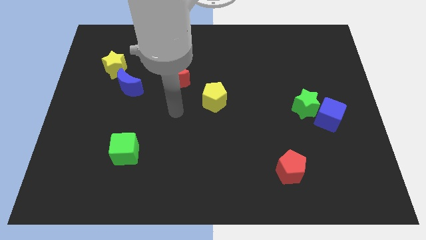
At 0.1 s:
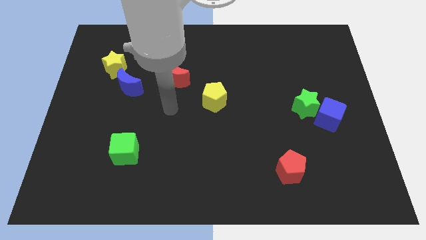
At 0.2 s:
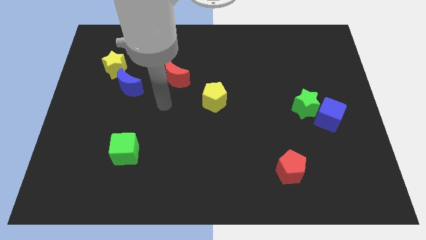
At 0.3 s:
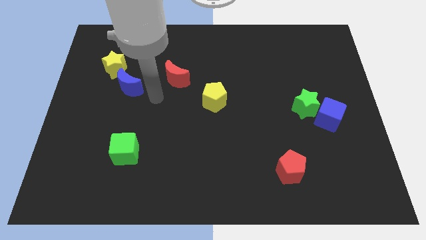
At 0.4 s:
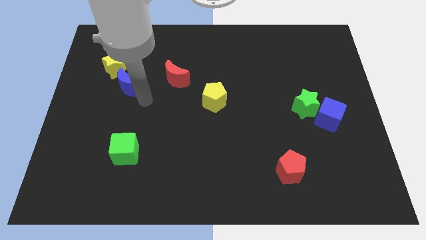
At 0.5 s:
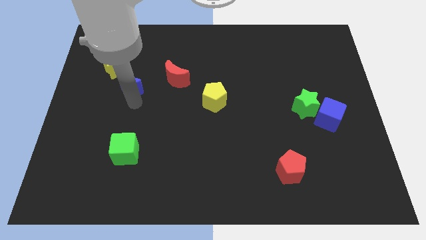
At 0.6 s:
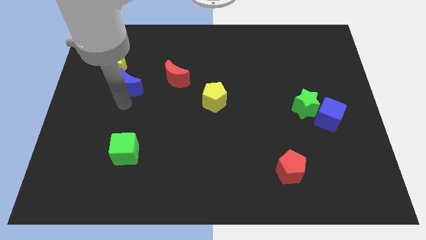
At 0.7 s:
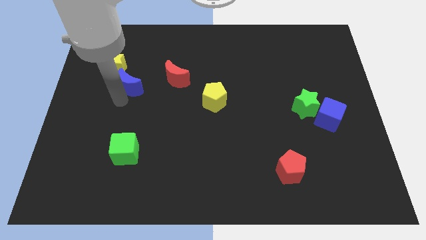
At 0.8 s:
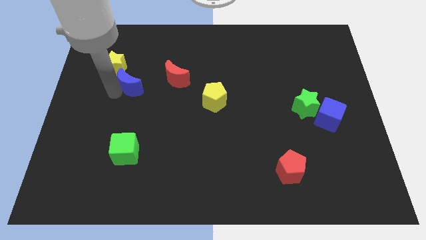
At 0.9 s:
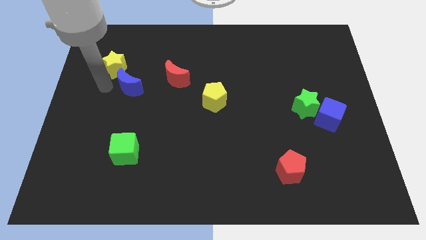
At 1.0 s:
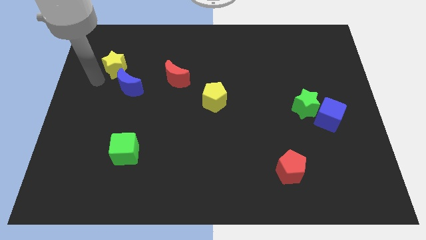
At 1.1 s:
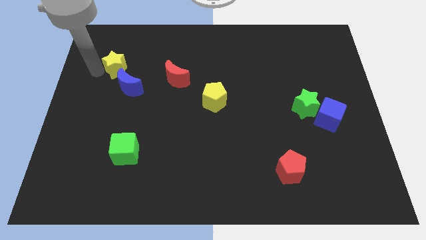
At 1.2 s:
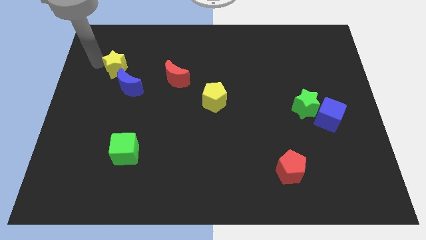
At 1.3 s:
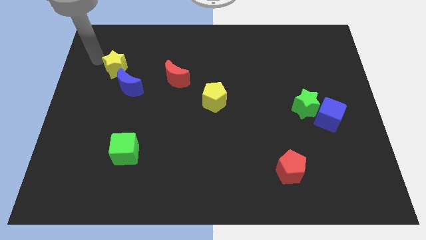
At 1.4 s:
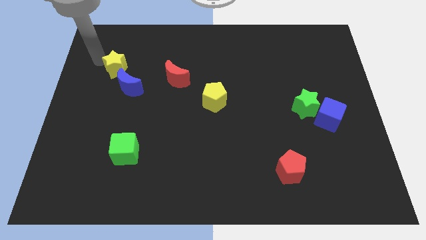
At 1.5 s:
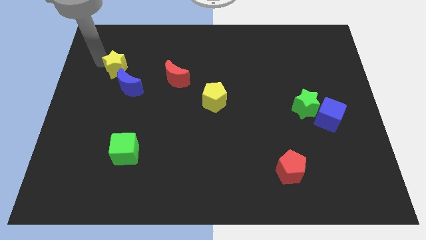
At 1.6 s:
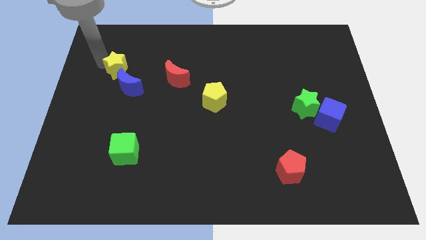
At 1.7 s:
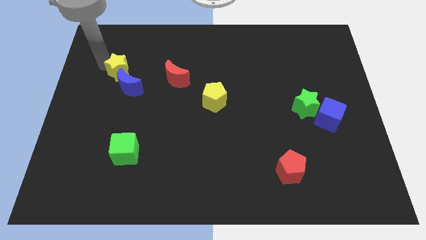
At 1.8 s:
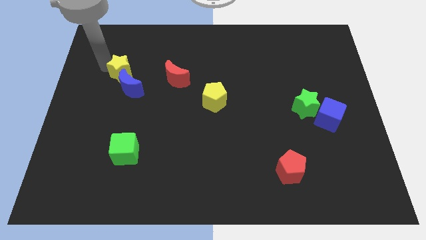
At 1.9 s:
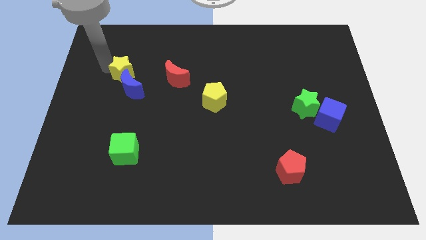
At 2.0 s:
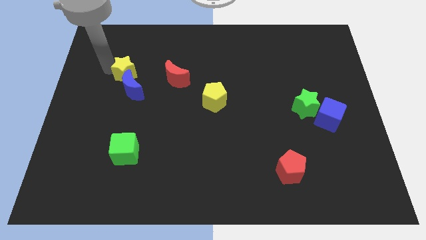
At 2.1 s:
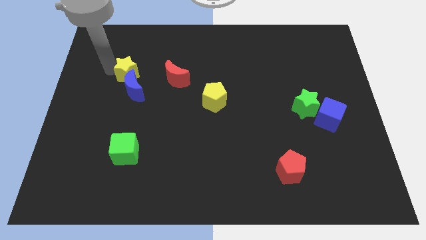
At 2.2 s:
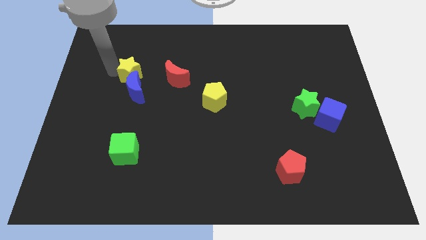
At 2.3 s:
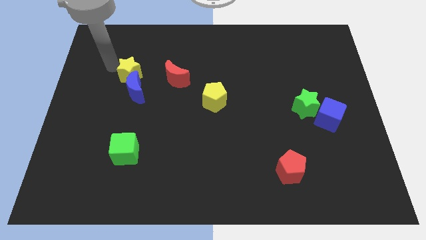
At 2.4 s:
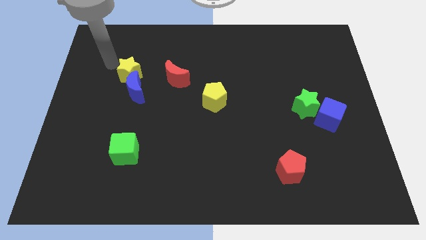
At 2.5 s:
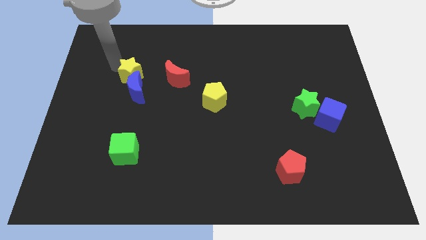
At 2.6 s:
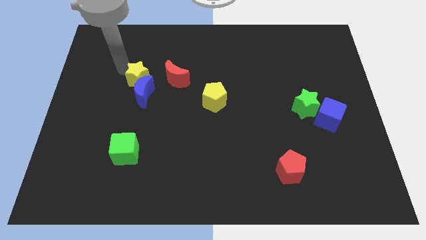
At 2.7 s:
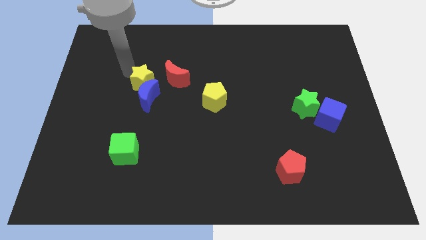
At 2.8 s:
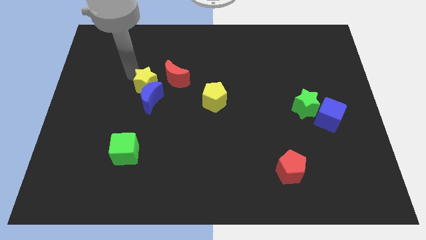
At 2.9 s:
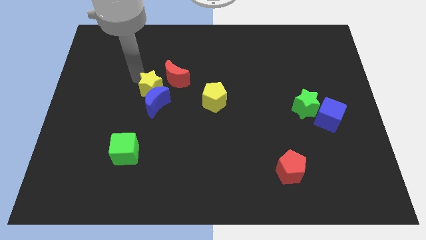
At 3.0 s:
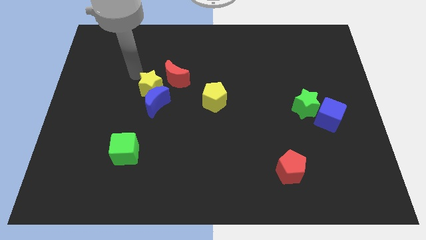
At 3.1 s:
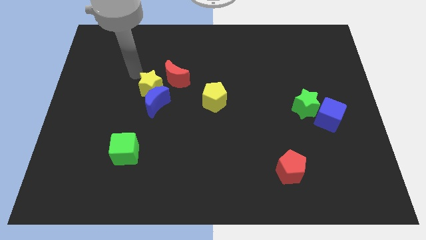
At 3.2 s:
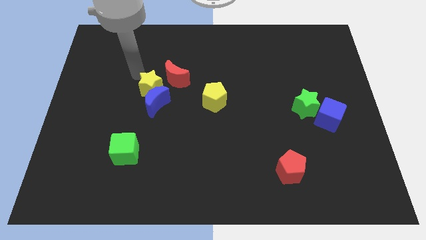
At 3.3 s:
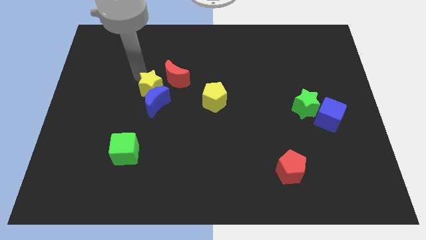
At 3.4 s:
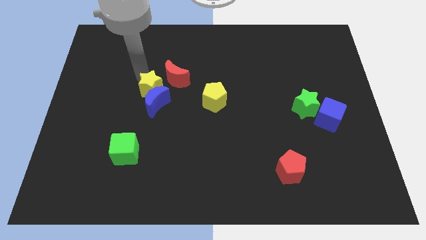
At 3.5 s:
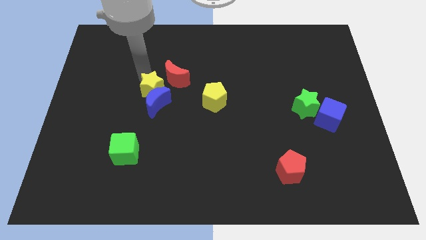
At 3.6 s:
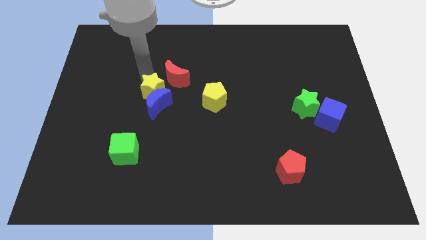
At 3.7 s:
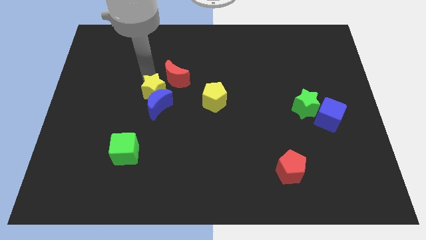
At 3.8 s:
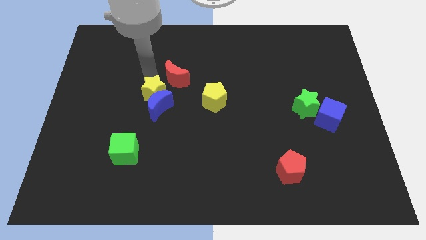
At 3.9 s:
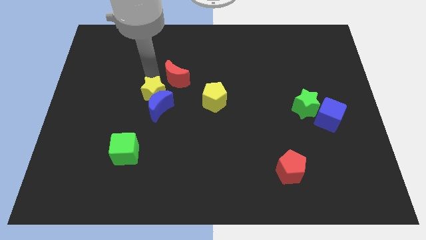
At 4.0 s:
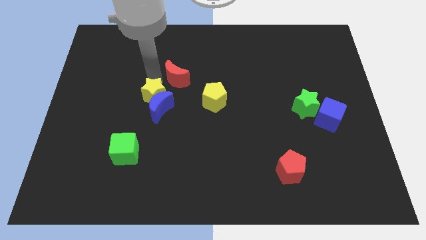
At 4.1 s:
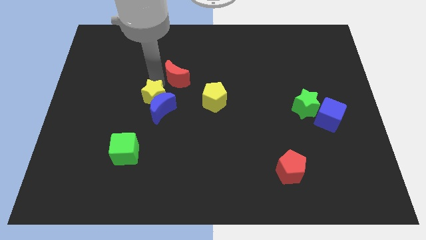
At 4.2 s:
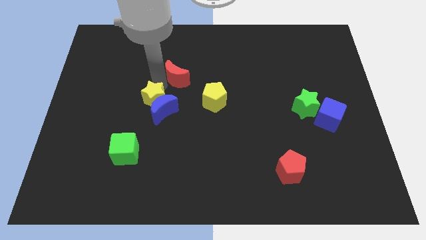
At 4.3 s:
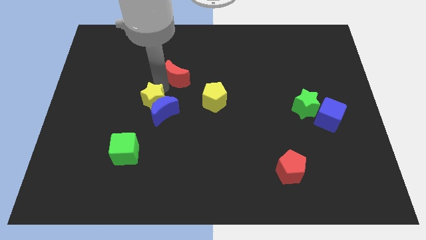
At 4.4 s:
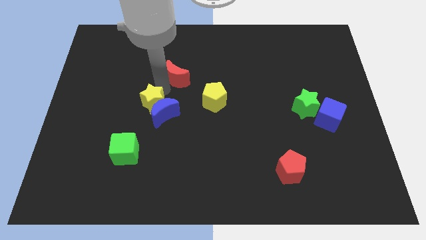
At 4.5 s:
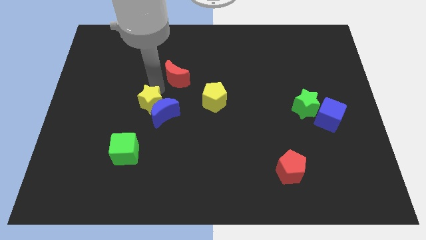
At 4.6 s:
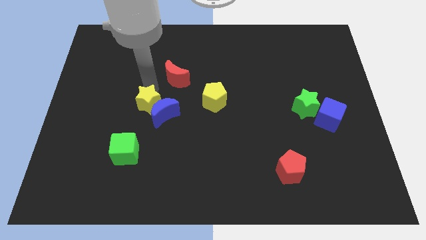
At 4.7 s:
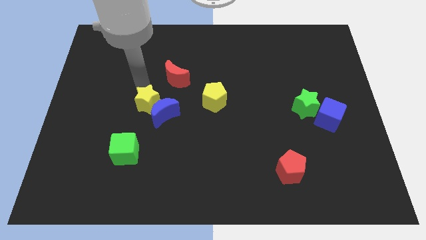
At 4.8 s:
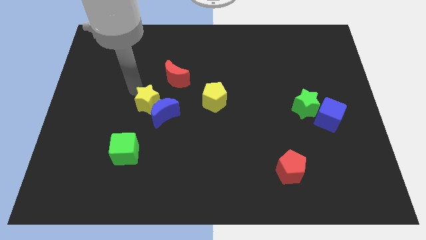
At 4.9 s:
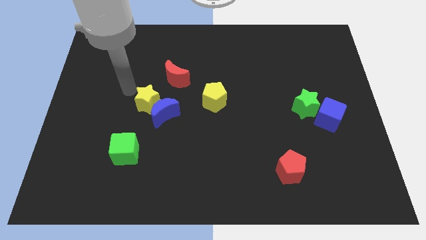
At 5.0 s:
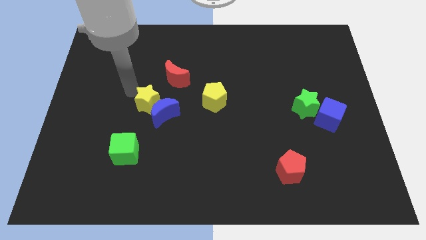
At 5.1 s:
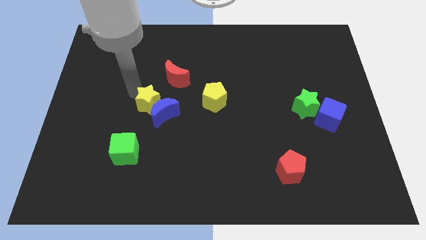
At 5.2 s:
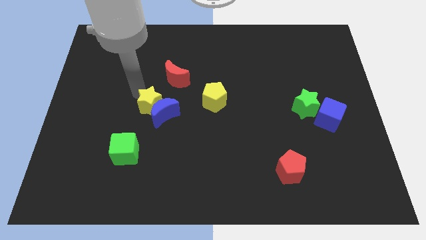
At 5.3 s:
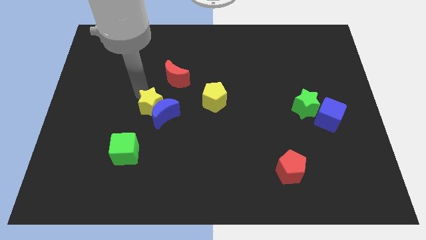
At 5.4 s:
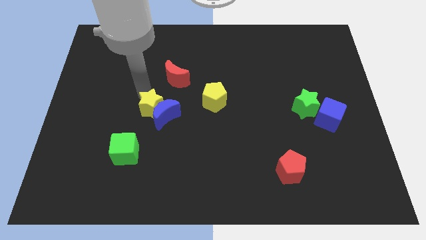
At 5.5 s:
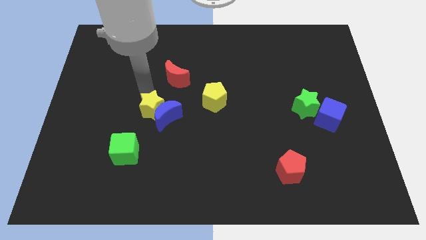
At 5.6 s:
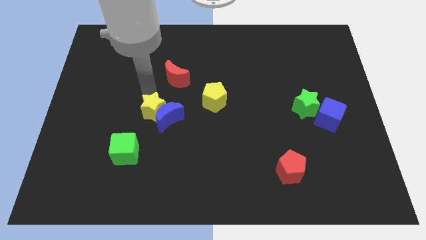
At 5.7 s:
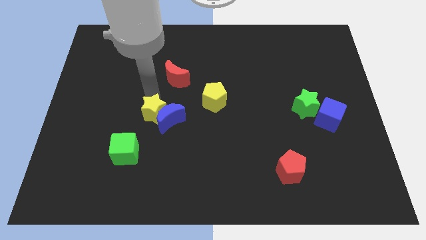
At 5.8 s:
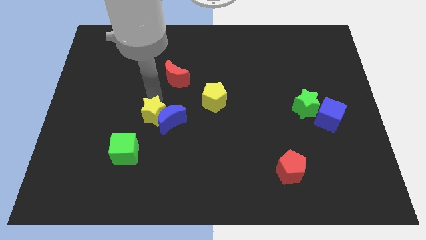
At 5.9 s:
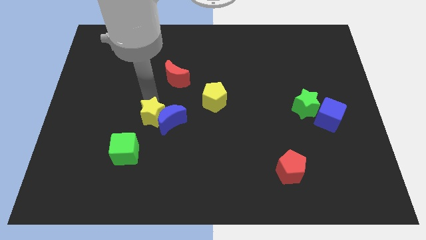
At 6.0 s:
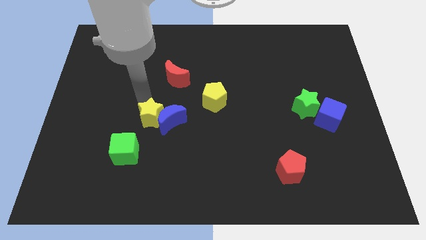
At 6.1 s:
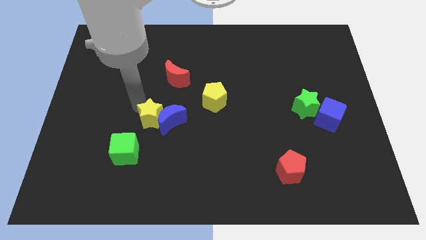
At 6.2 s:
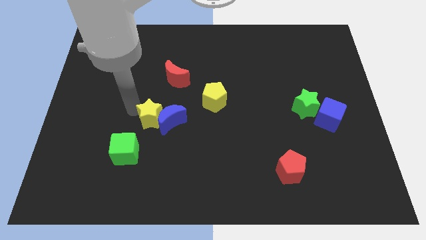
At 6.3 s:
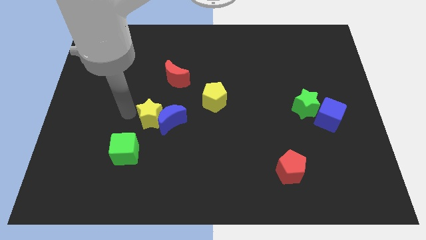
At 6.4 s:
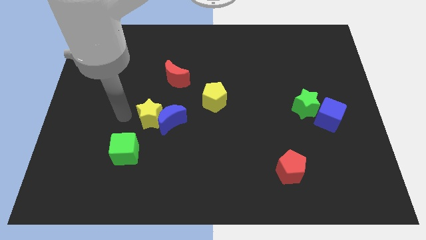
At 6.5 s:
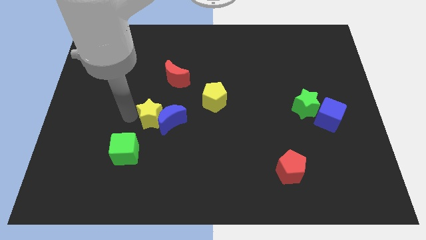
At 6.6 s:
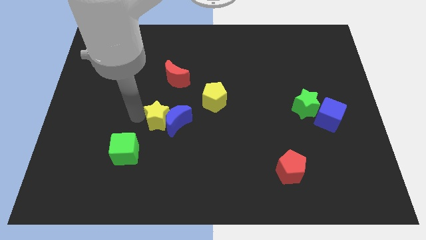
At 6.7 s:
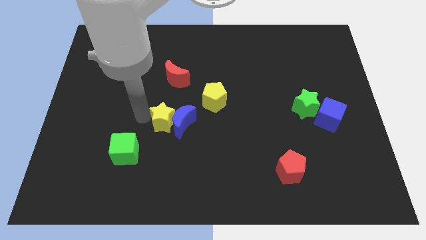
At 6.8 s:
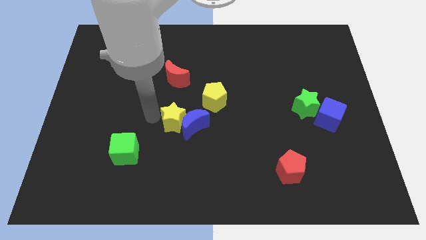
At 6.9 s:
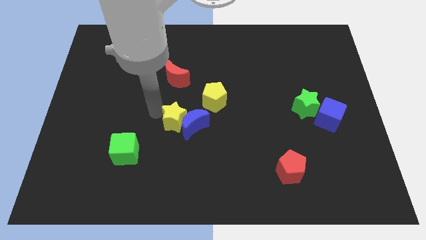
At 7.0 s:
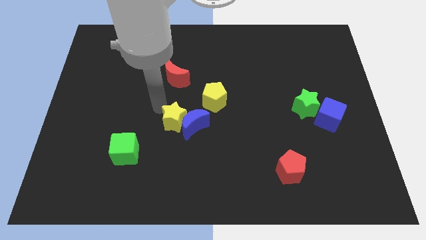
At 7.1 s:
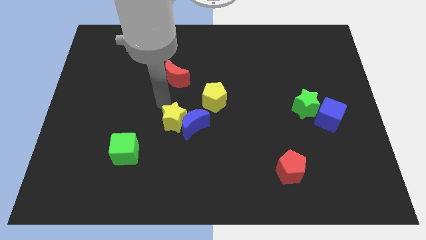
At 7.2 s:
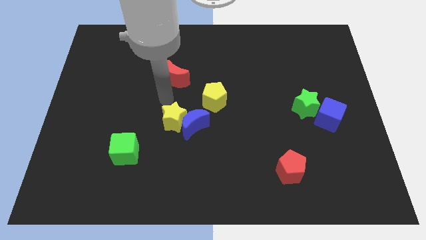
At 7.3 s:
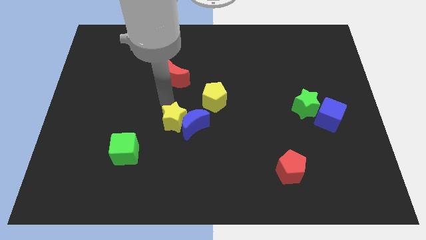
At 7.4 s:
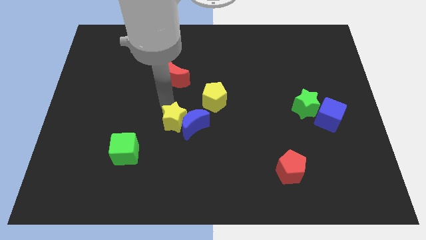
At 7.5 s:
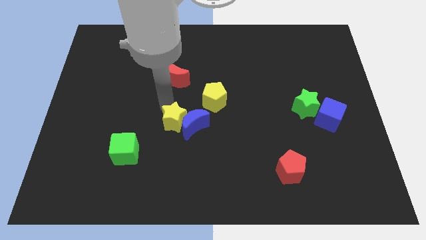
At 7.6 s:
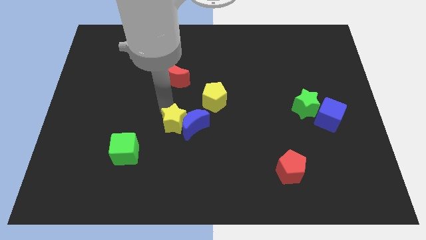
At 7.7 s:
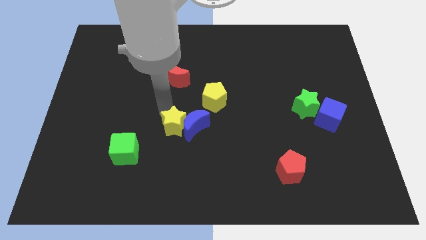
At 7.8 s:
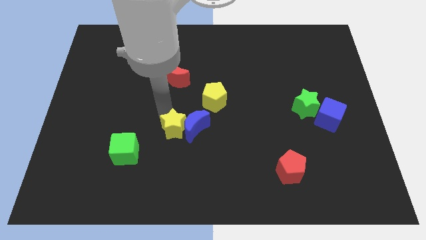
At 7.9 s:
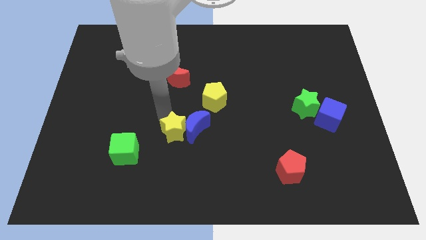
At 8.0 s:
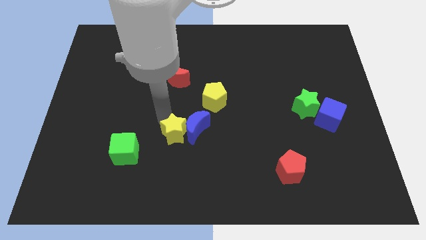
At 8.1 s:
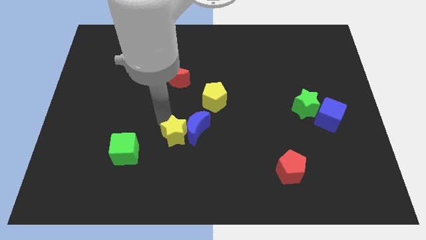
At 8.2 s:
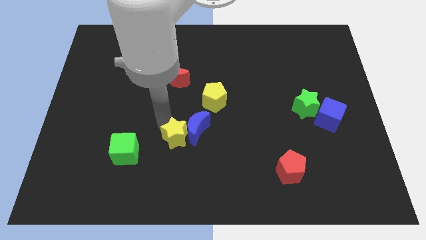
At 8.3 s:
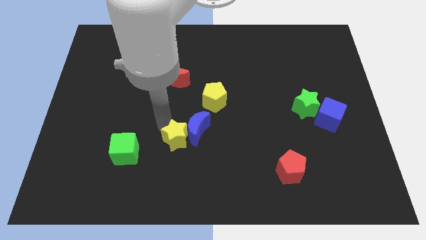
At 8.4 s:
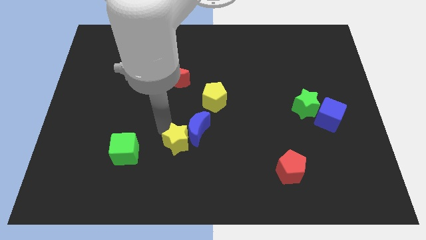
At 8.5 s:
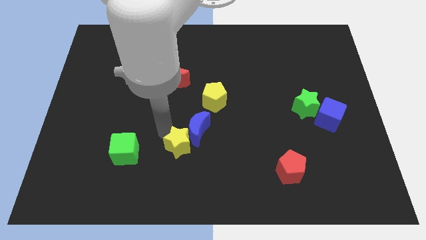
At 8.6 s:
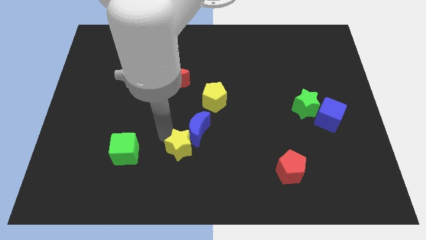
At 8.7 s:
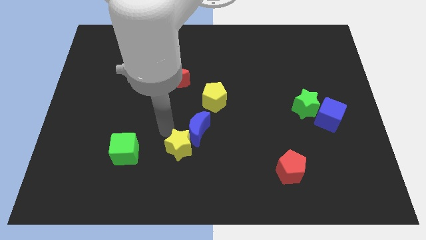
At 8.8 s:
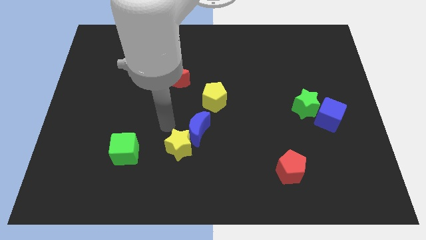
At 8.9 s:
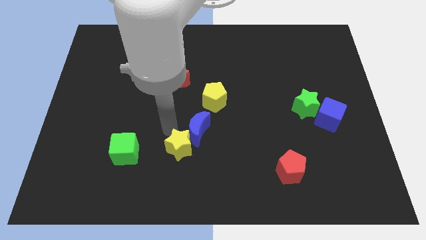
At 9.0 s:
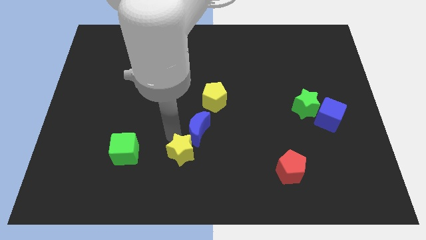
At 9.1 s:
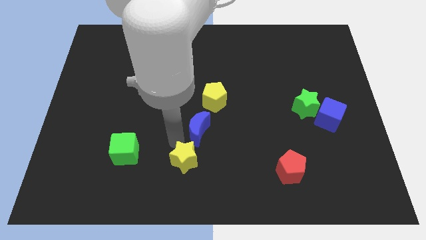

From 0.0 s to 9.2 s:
push the yellow star to the bottom
